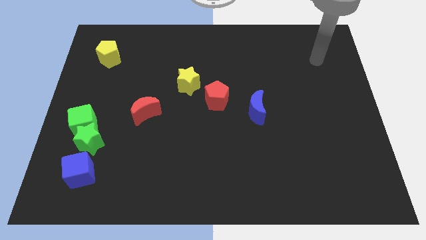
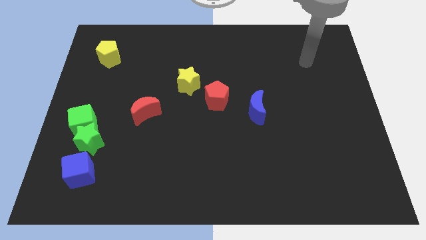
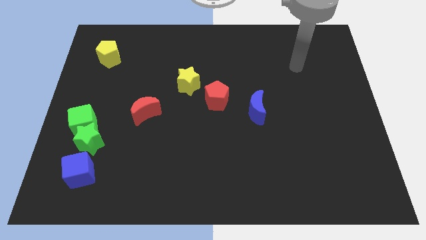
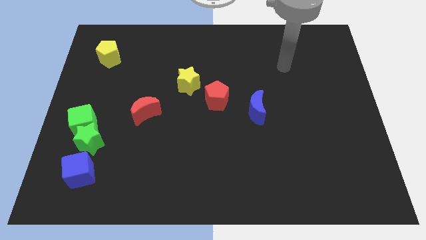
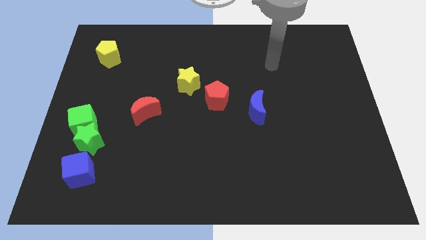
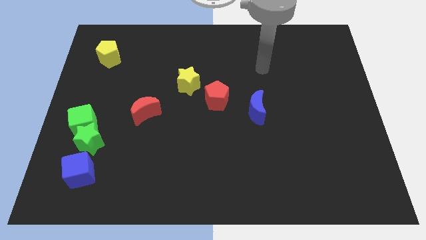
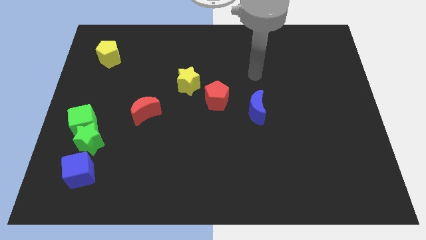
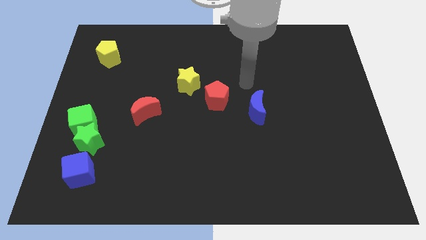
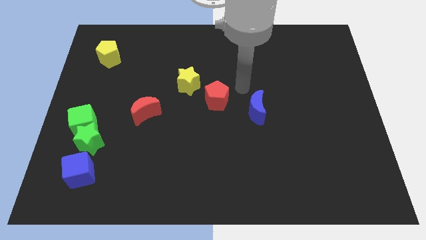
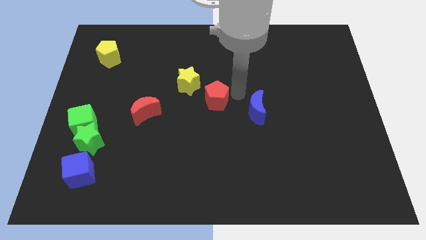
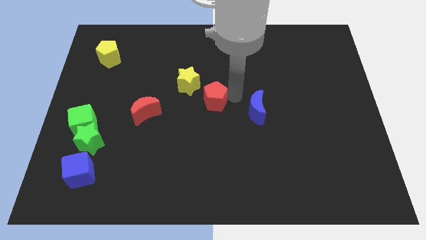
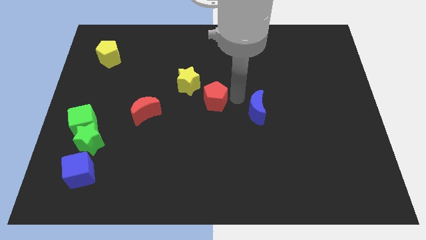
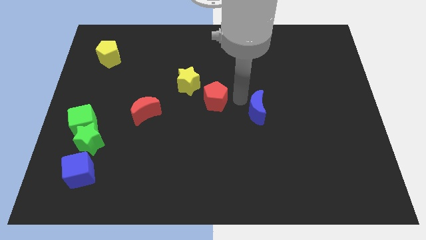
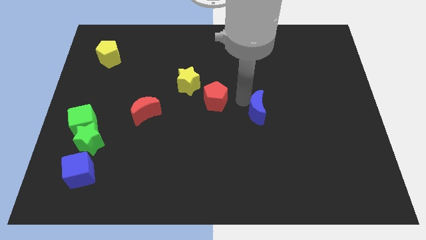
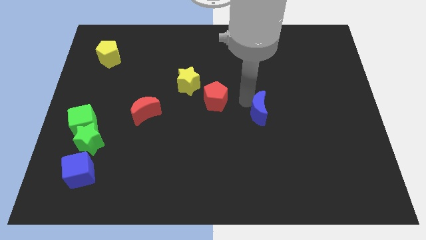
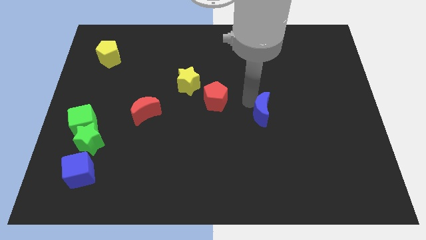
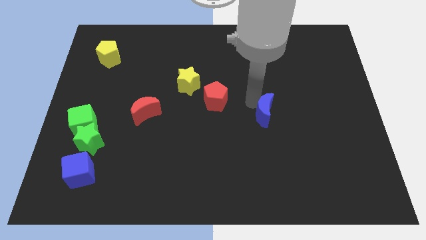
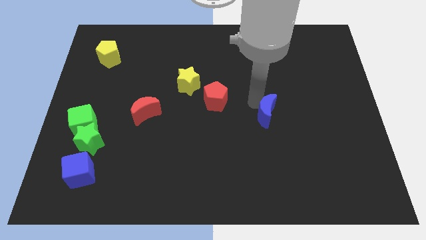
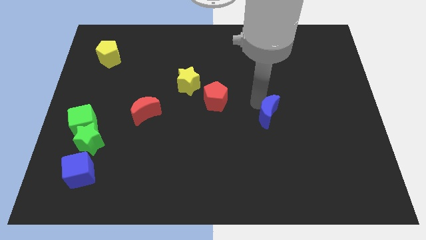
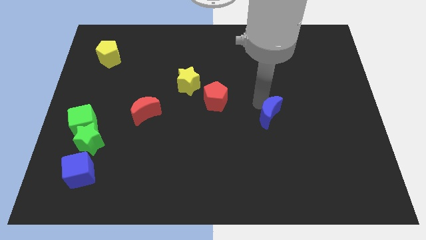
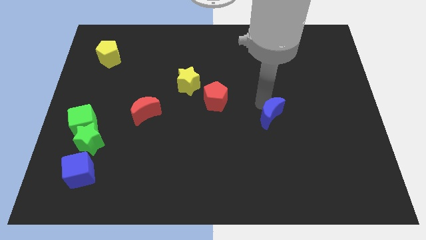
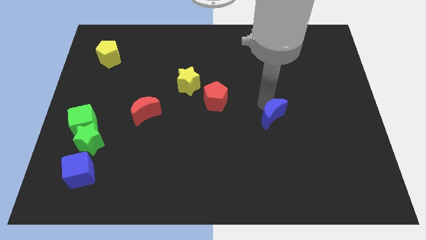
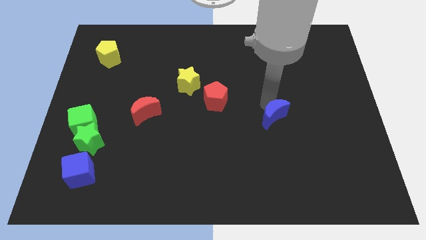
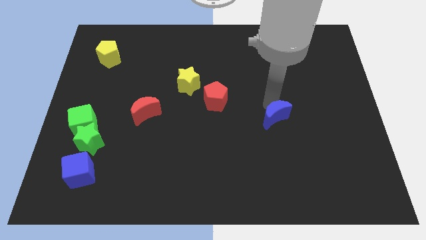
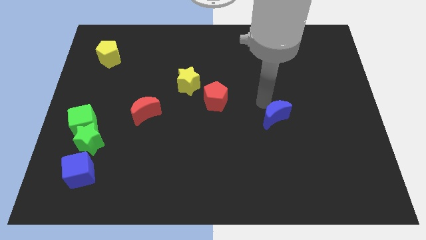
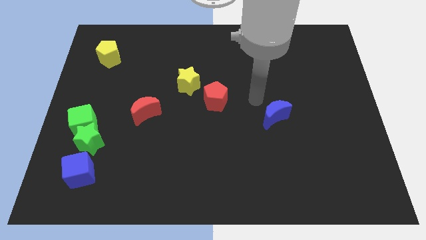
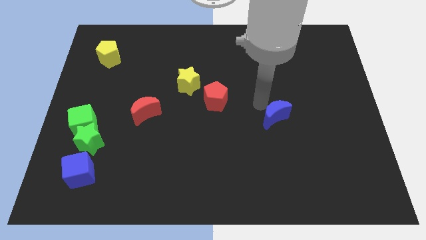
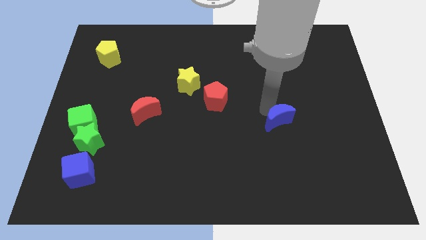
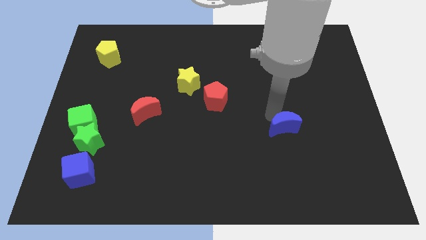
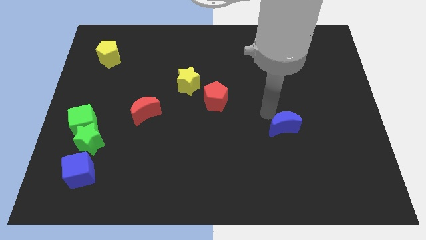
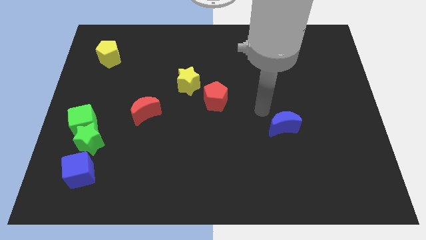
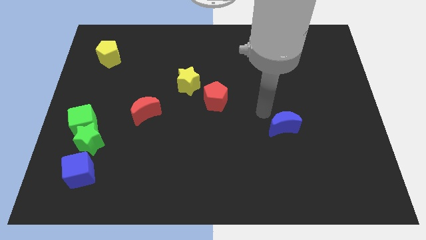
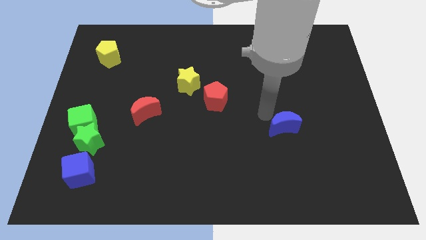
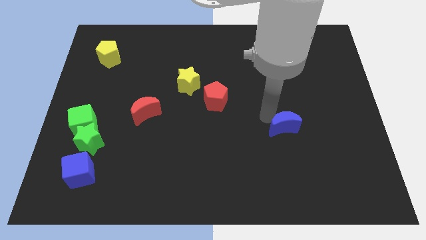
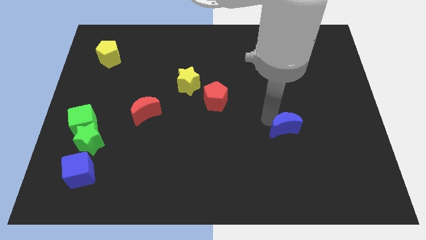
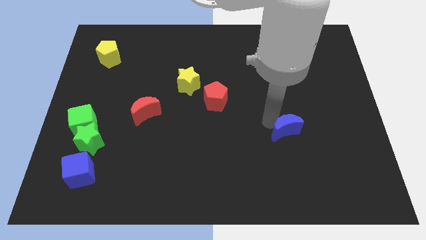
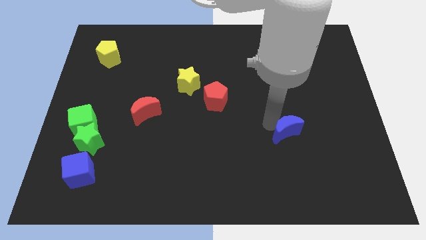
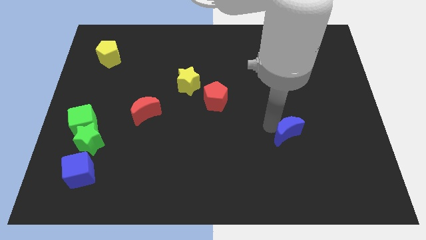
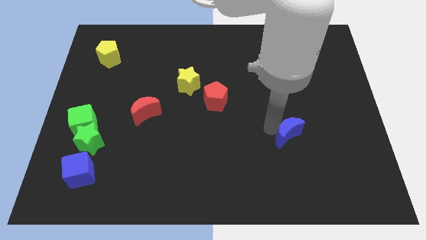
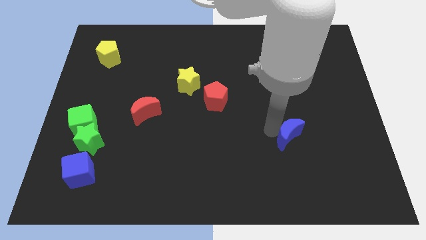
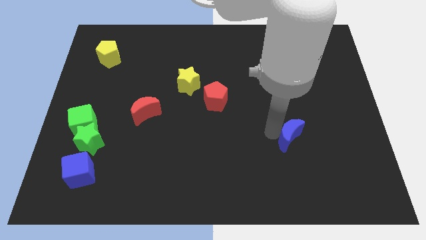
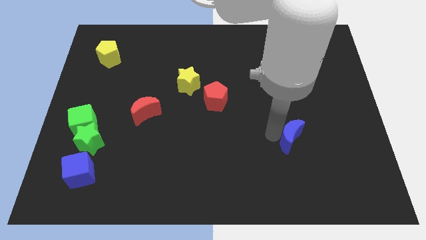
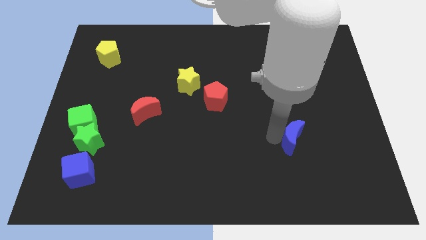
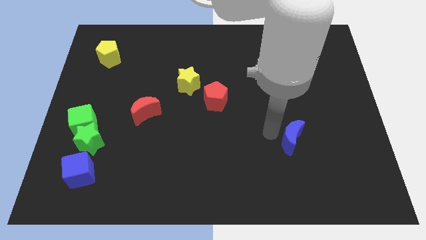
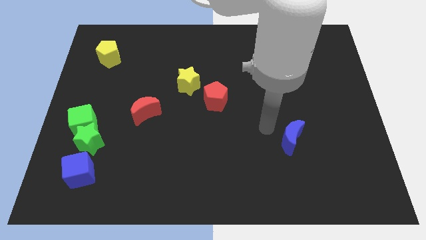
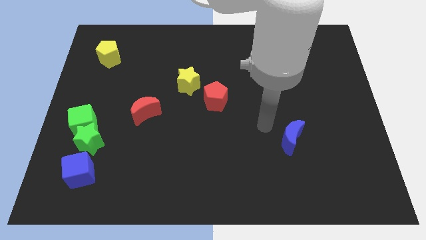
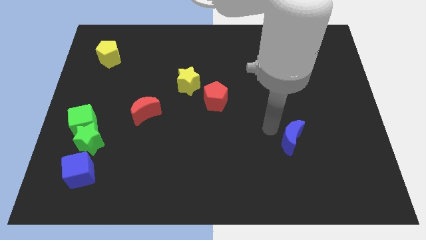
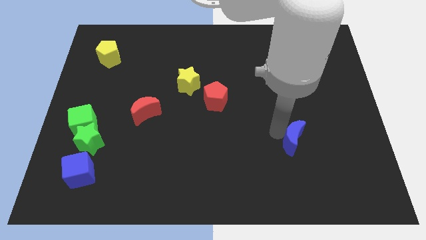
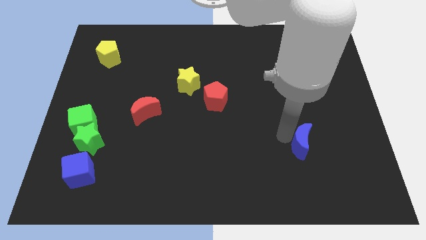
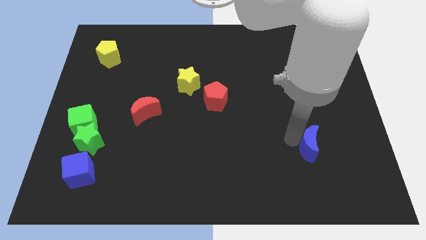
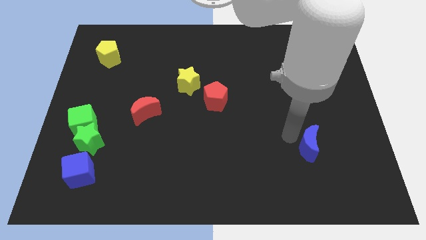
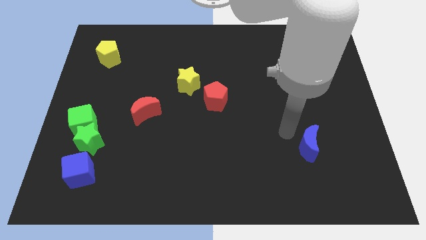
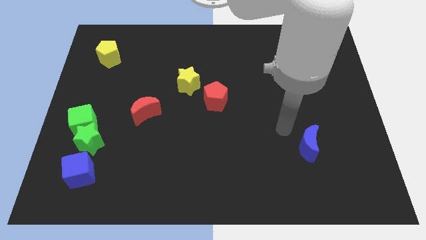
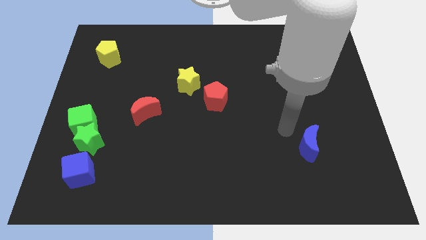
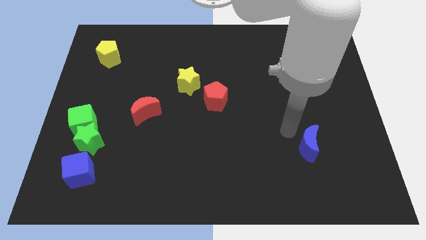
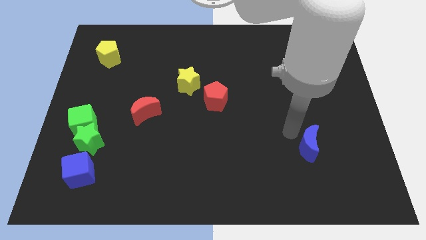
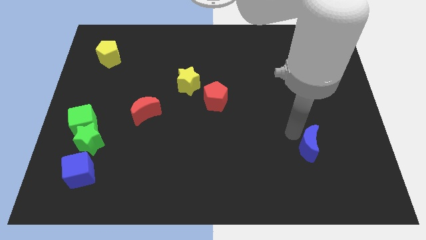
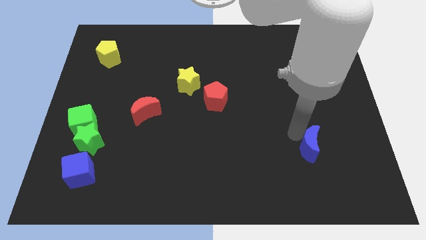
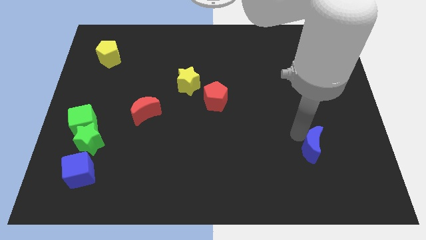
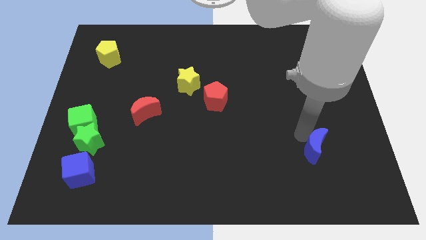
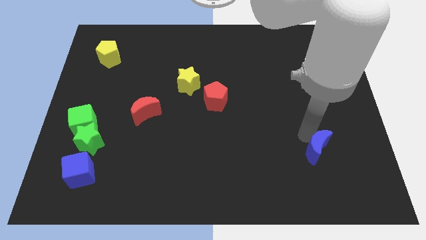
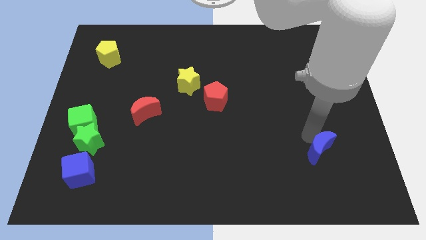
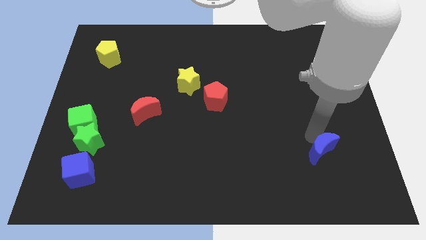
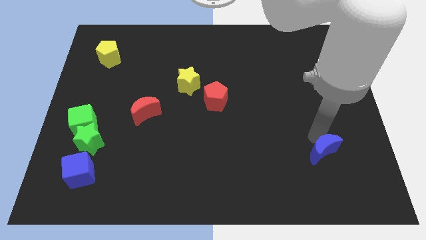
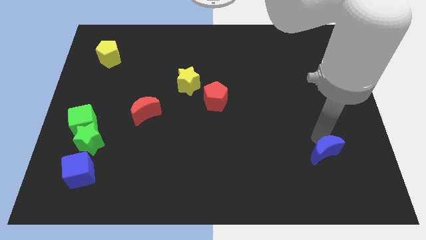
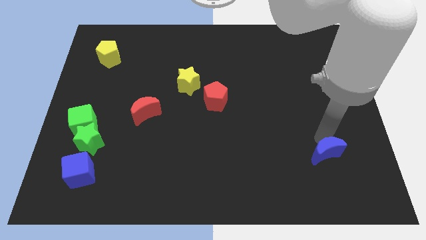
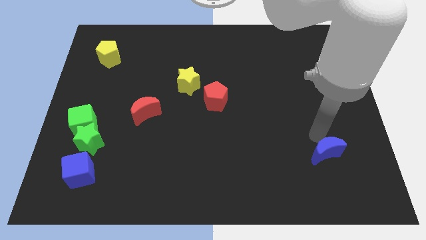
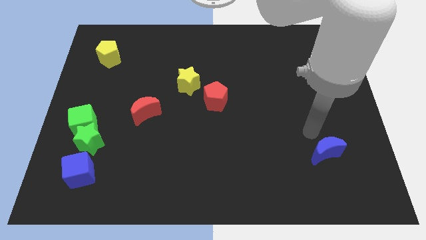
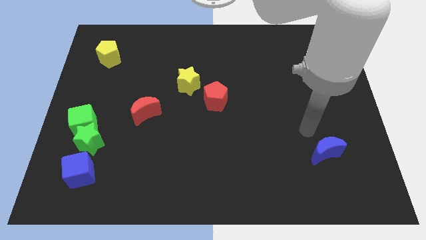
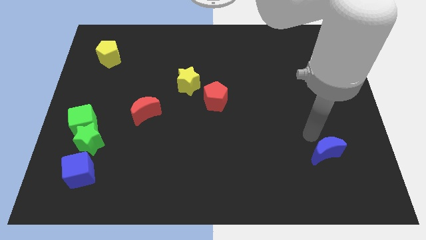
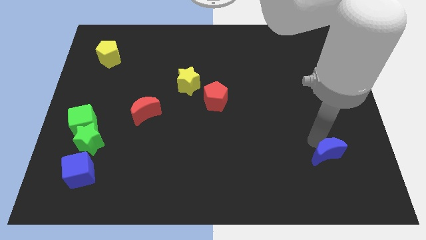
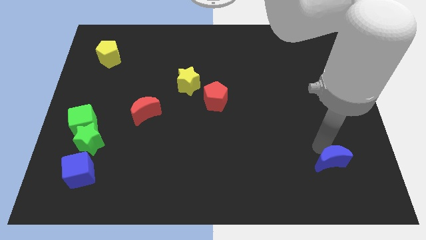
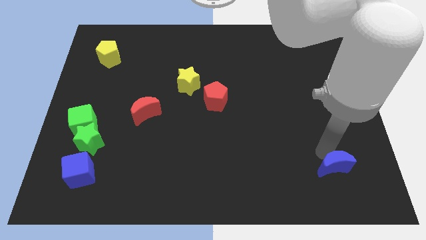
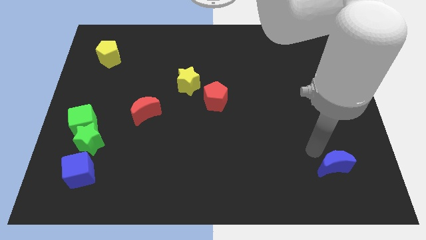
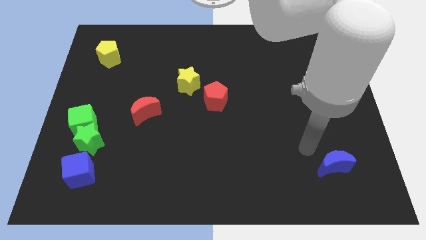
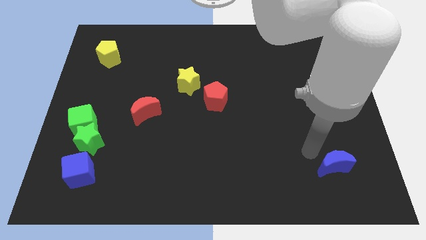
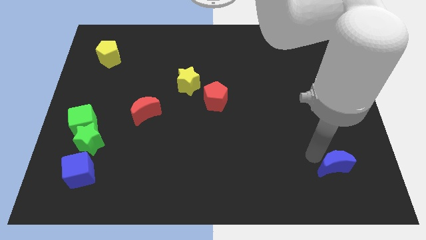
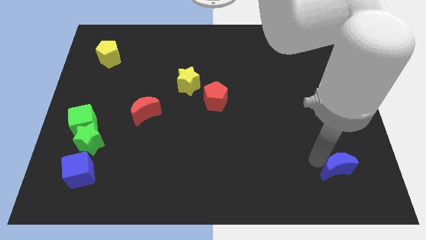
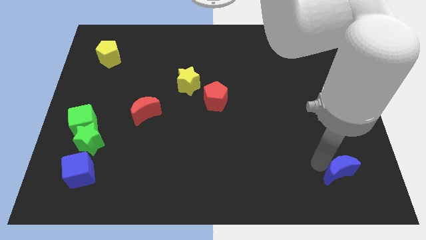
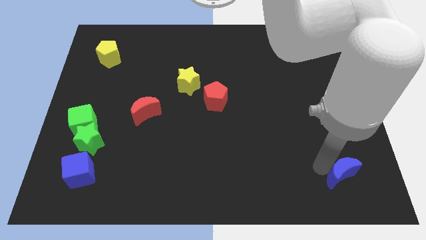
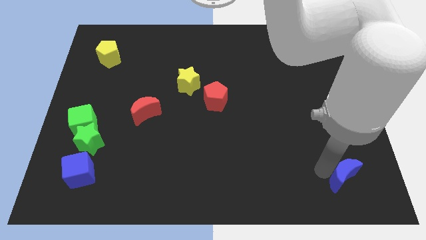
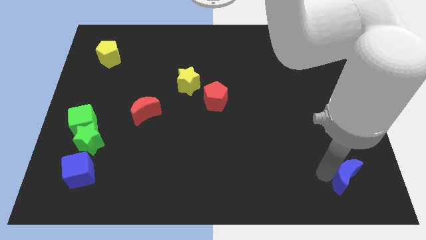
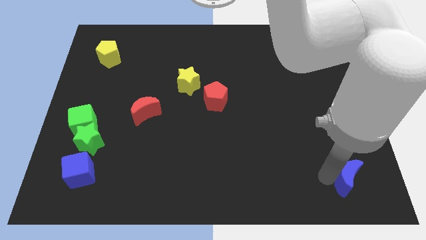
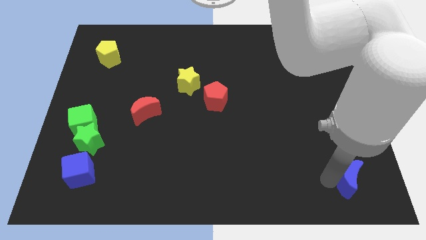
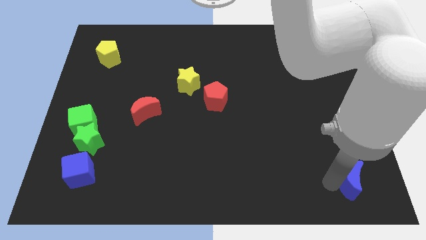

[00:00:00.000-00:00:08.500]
push the blue moon to the lower right corner
